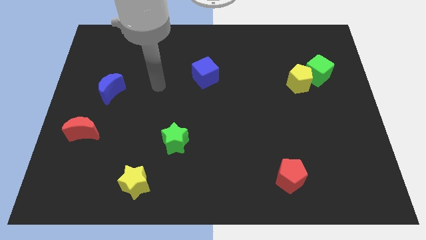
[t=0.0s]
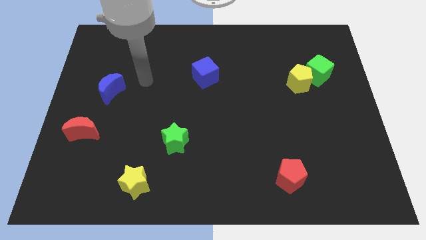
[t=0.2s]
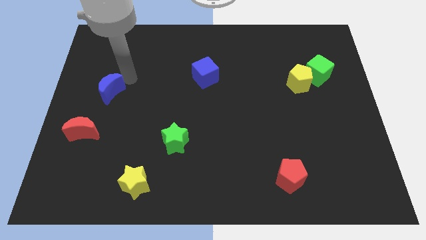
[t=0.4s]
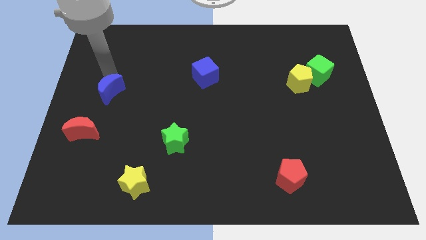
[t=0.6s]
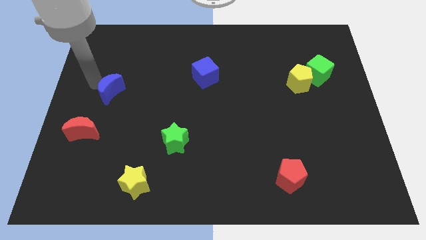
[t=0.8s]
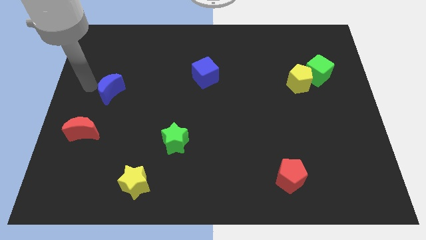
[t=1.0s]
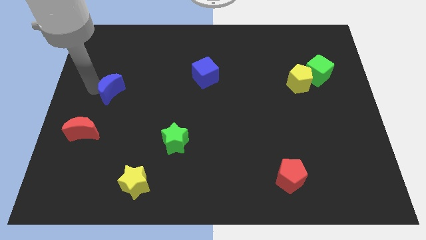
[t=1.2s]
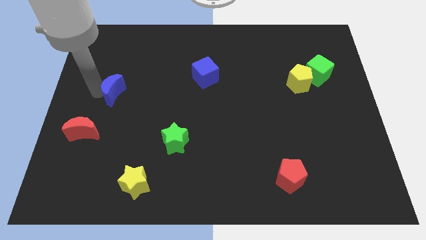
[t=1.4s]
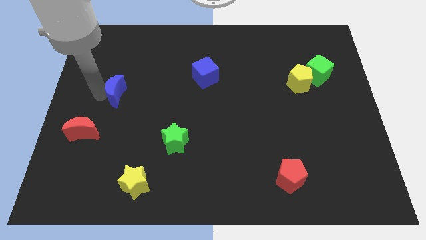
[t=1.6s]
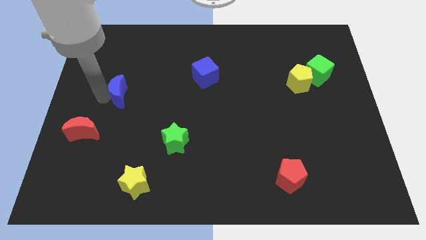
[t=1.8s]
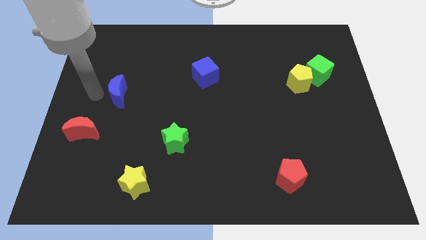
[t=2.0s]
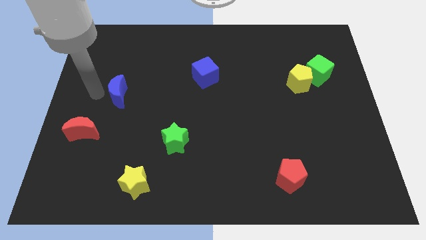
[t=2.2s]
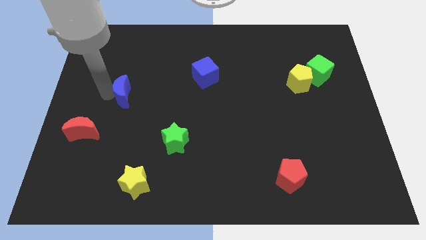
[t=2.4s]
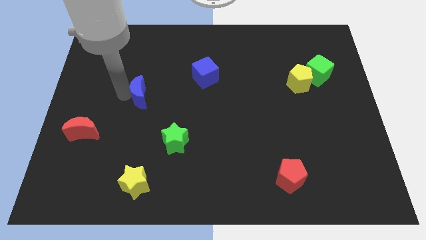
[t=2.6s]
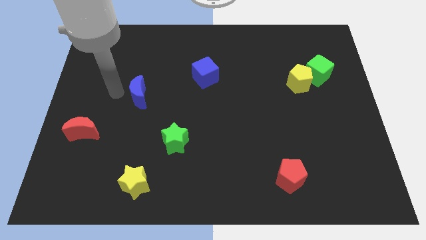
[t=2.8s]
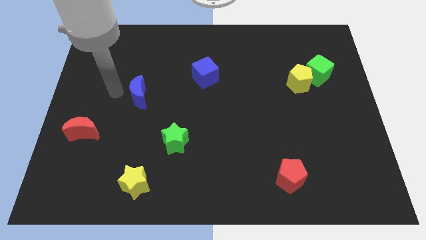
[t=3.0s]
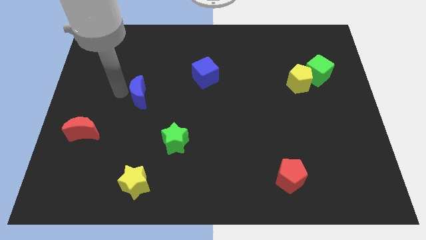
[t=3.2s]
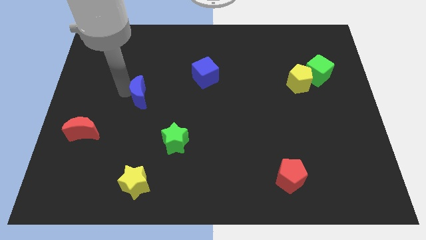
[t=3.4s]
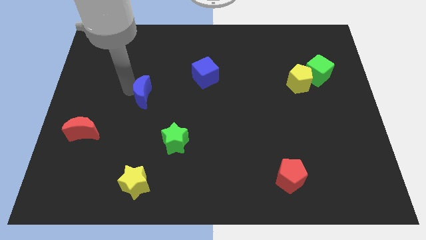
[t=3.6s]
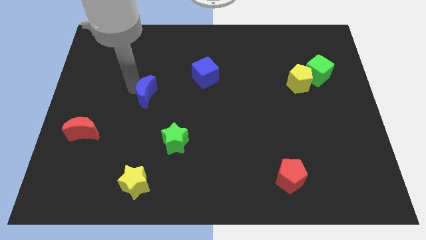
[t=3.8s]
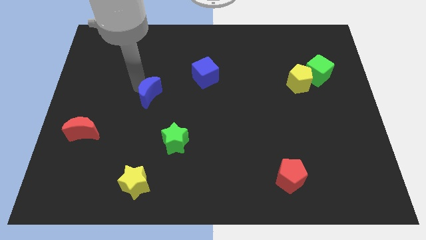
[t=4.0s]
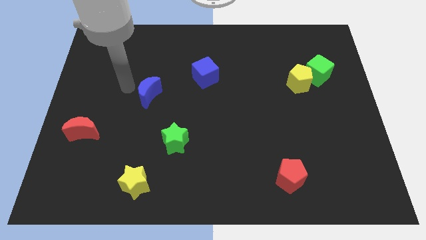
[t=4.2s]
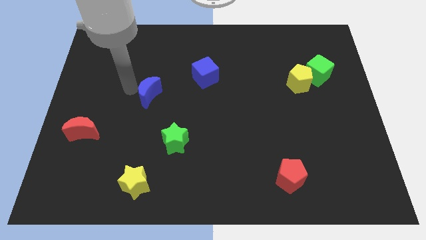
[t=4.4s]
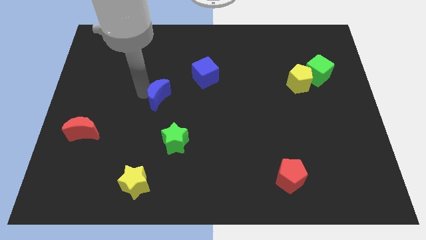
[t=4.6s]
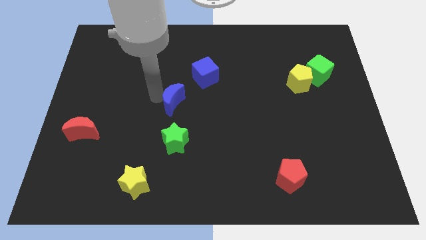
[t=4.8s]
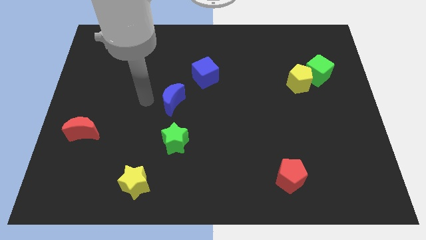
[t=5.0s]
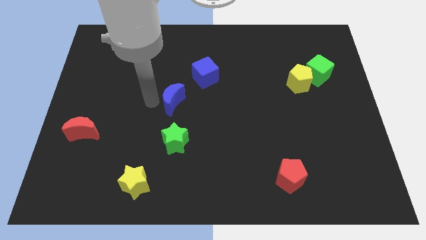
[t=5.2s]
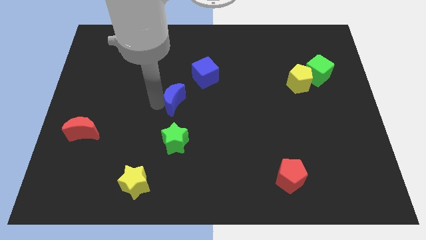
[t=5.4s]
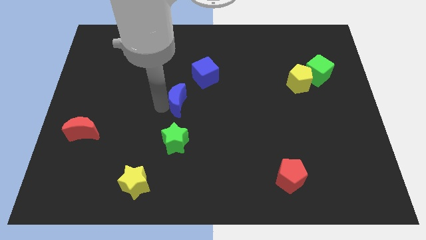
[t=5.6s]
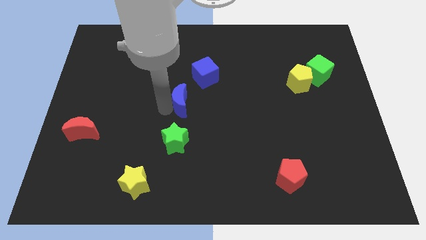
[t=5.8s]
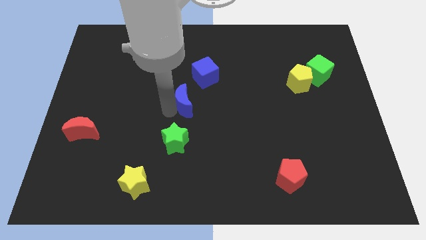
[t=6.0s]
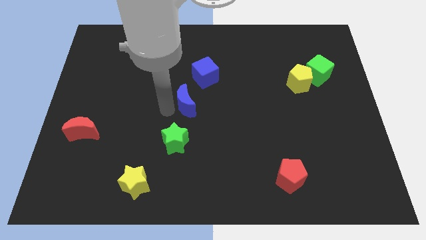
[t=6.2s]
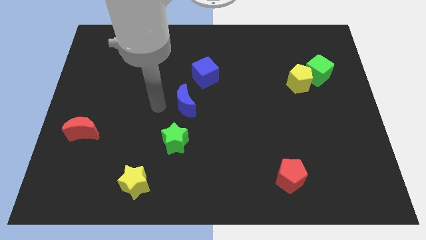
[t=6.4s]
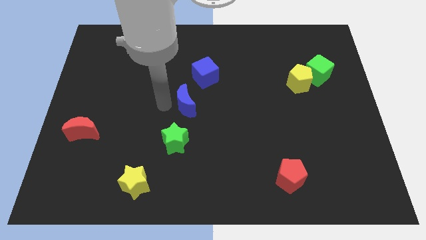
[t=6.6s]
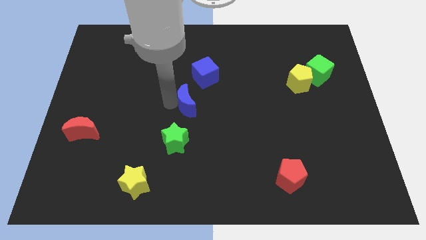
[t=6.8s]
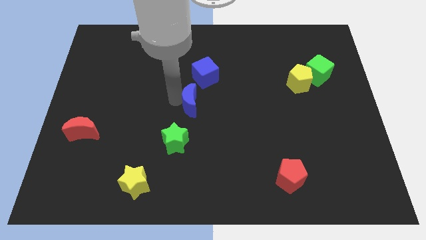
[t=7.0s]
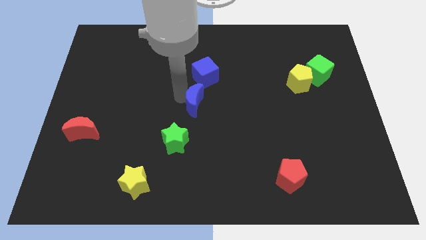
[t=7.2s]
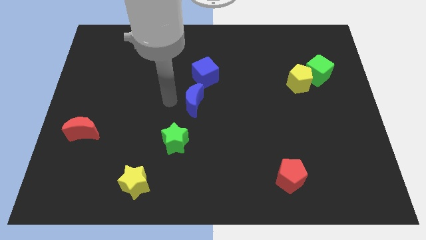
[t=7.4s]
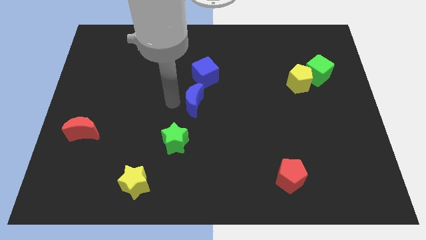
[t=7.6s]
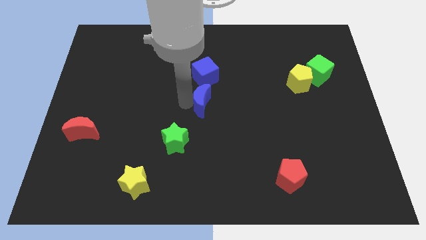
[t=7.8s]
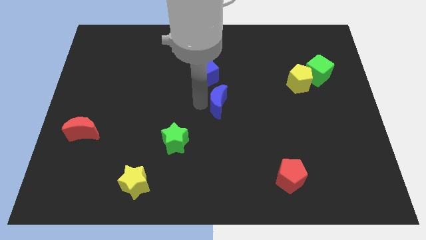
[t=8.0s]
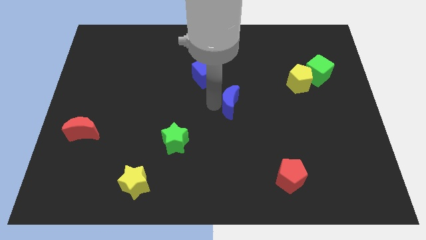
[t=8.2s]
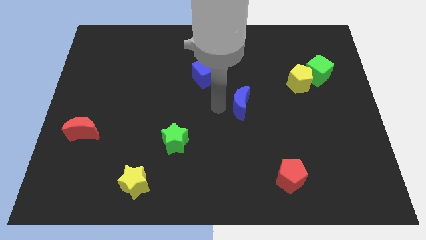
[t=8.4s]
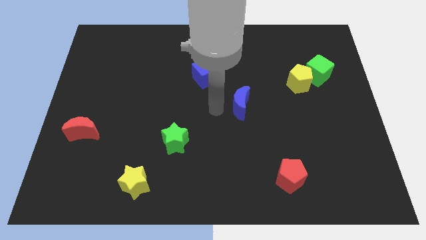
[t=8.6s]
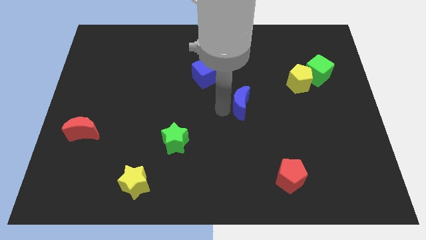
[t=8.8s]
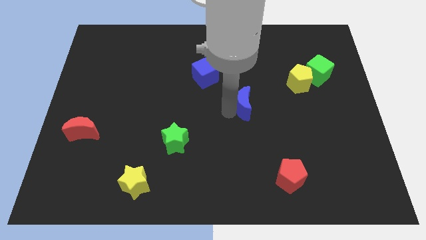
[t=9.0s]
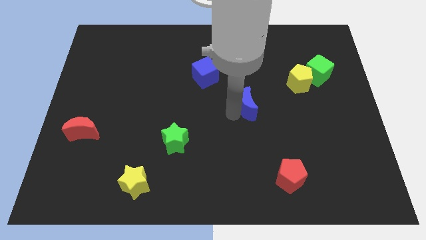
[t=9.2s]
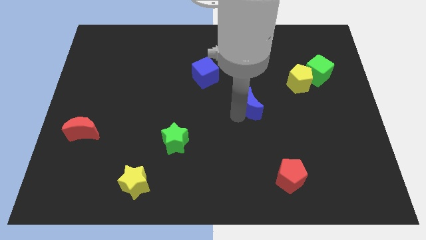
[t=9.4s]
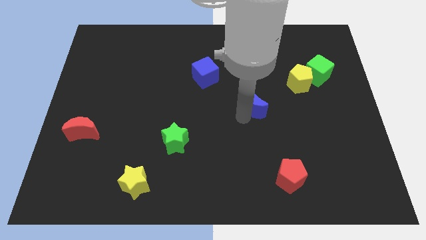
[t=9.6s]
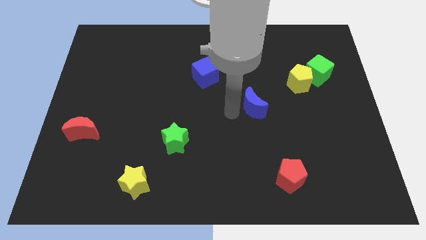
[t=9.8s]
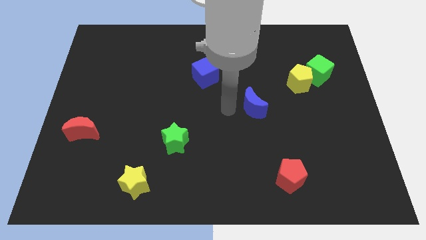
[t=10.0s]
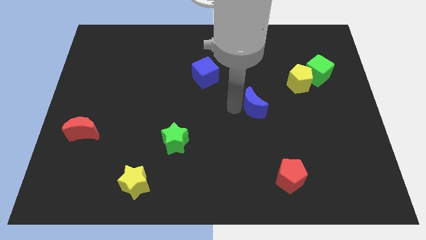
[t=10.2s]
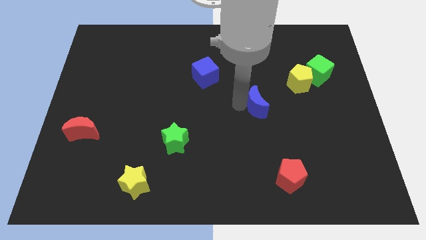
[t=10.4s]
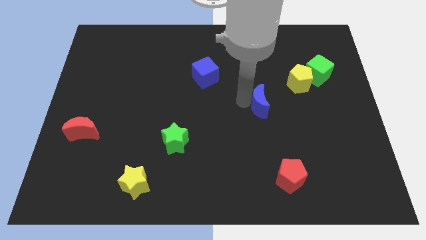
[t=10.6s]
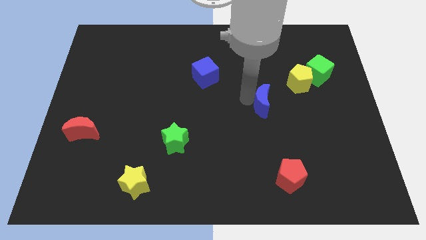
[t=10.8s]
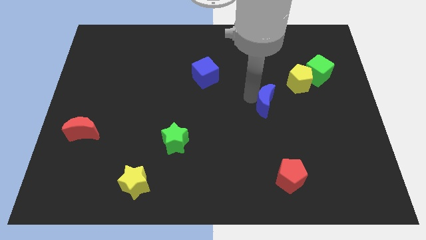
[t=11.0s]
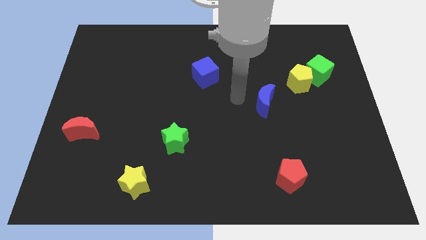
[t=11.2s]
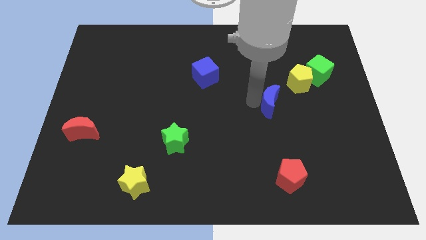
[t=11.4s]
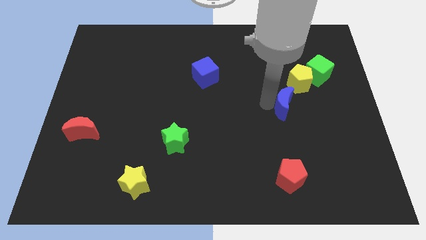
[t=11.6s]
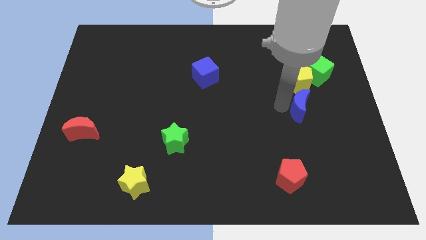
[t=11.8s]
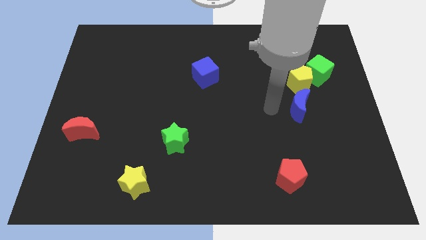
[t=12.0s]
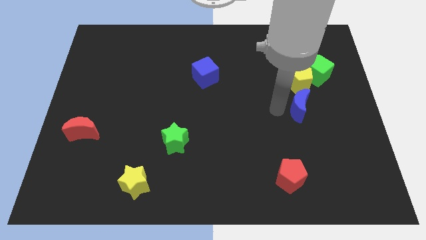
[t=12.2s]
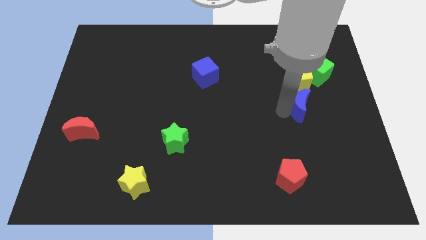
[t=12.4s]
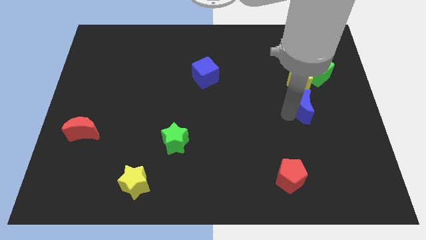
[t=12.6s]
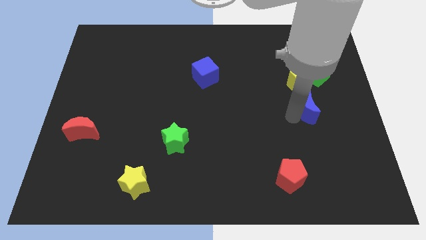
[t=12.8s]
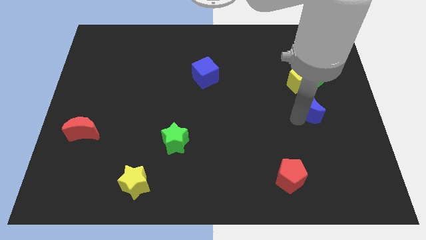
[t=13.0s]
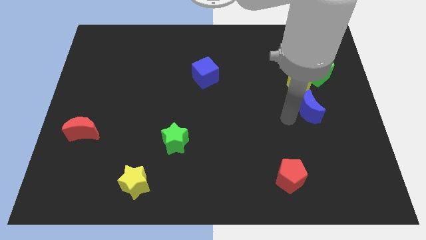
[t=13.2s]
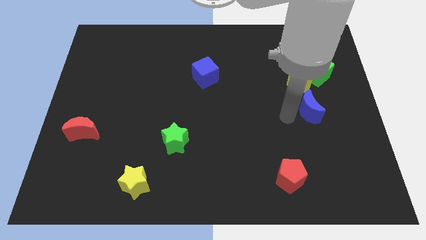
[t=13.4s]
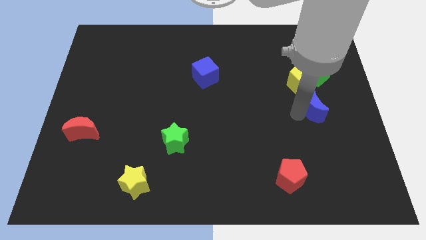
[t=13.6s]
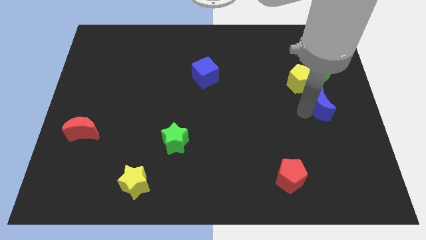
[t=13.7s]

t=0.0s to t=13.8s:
slide the blue moon to the center right

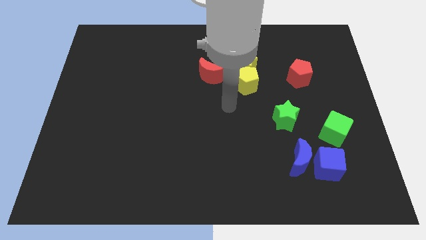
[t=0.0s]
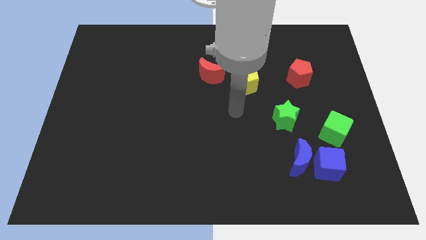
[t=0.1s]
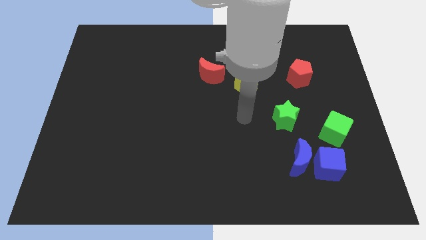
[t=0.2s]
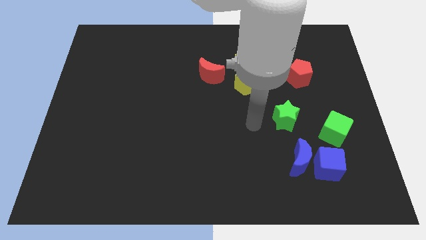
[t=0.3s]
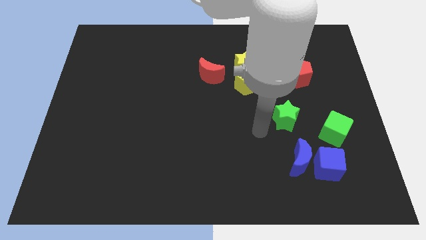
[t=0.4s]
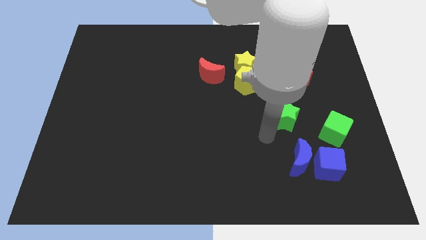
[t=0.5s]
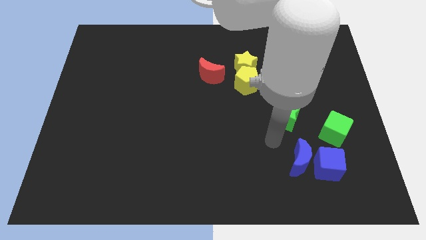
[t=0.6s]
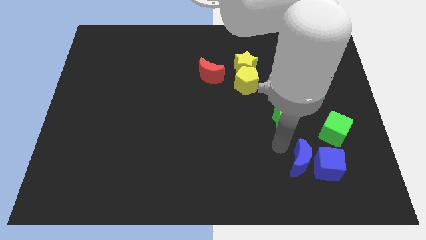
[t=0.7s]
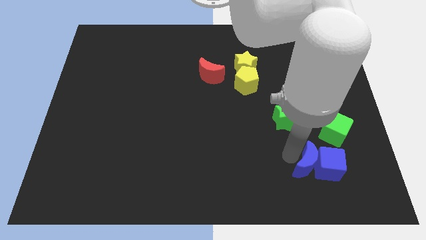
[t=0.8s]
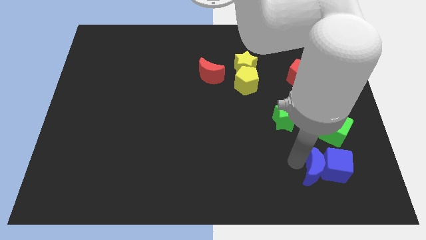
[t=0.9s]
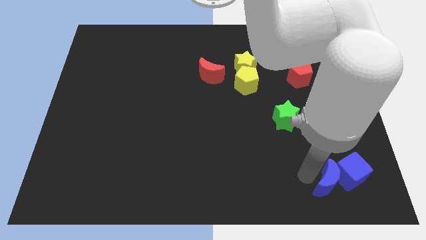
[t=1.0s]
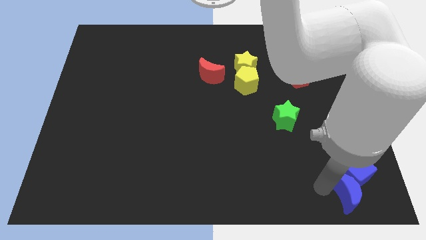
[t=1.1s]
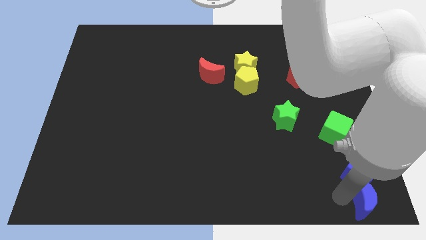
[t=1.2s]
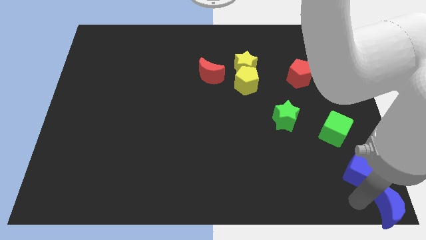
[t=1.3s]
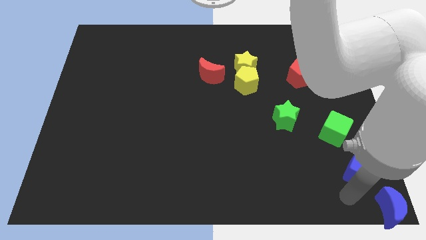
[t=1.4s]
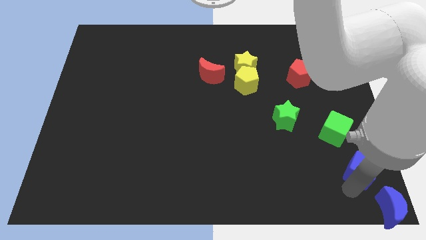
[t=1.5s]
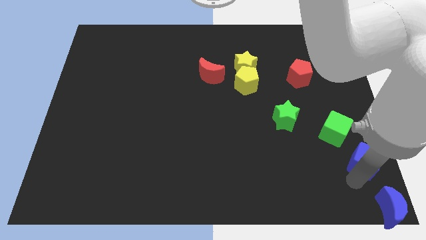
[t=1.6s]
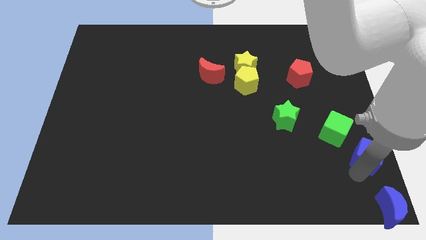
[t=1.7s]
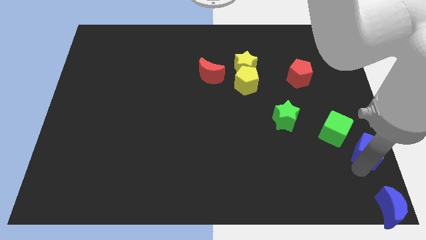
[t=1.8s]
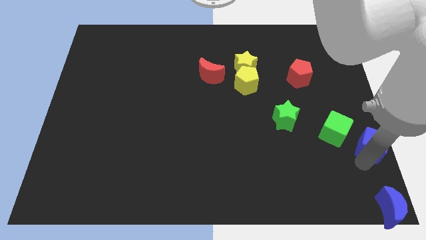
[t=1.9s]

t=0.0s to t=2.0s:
move the blue cube to the center right
